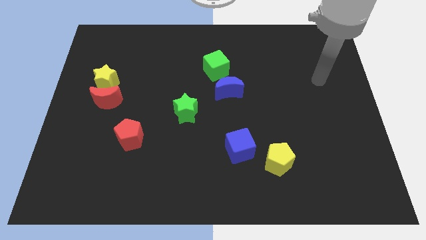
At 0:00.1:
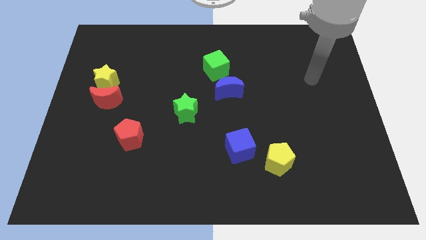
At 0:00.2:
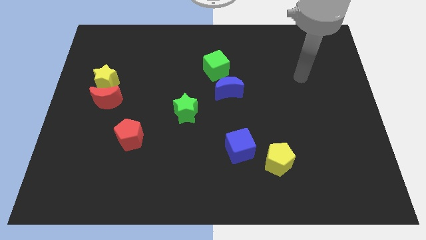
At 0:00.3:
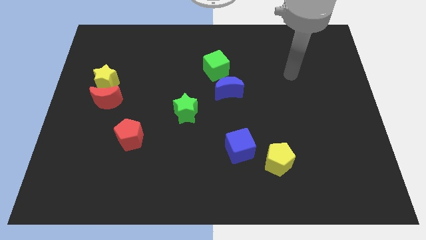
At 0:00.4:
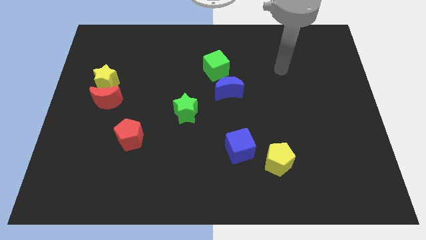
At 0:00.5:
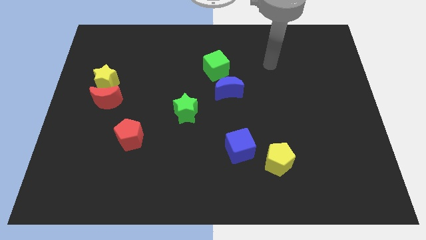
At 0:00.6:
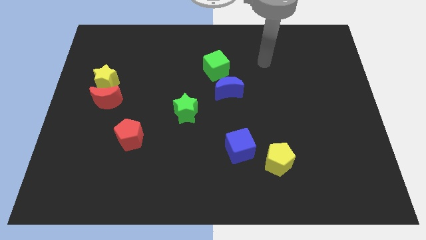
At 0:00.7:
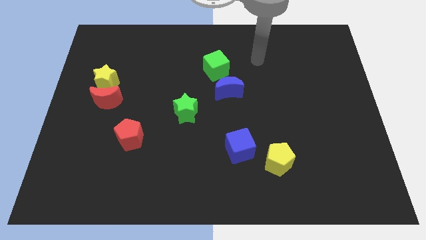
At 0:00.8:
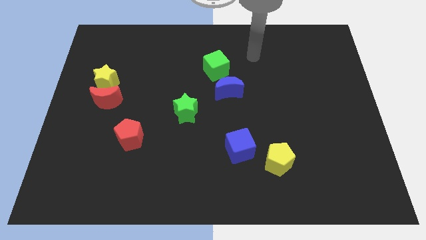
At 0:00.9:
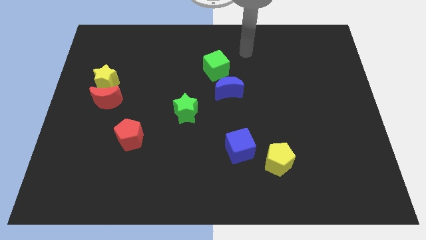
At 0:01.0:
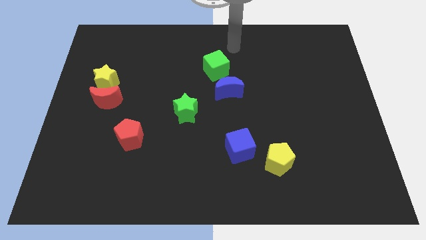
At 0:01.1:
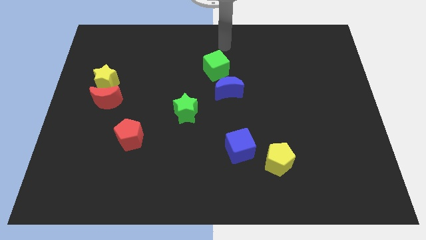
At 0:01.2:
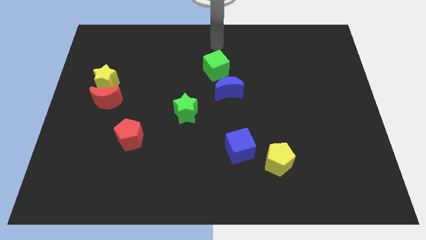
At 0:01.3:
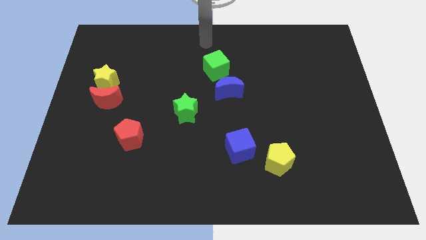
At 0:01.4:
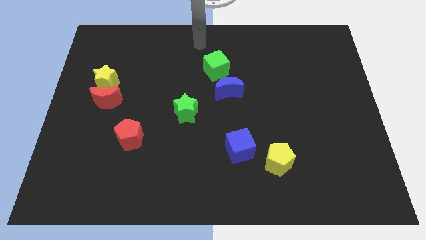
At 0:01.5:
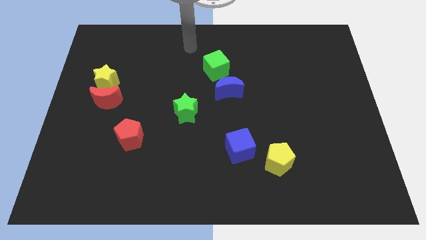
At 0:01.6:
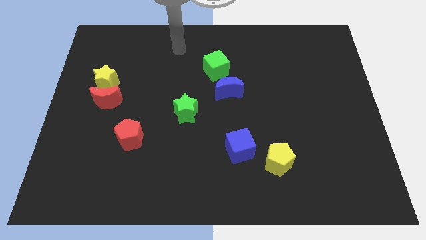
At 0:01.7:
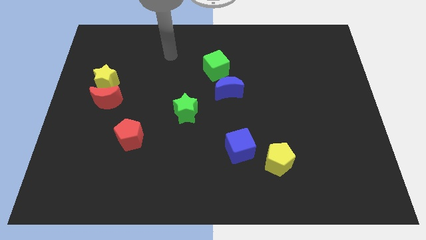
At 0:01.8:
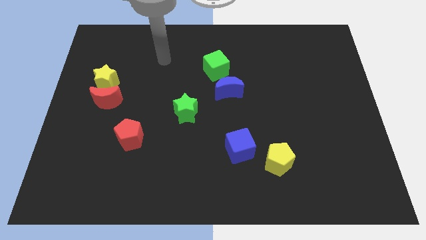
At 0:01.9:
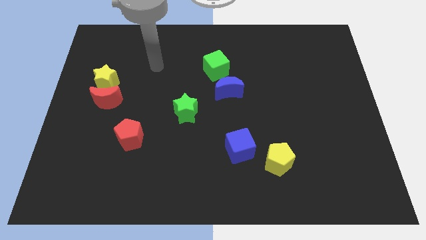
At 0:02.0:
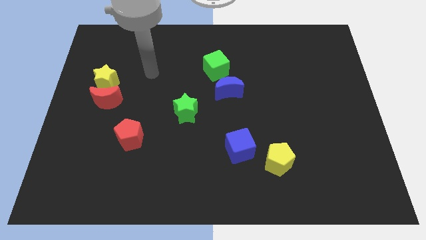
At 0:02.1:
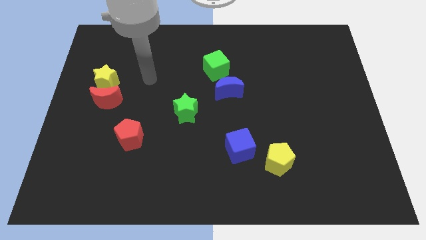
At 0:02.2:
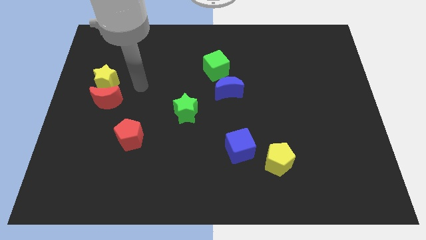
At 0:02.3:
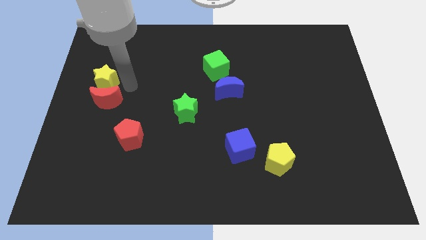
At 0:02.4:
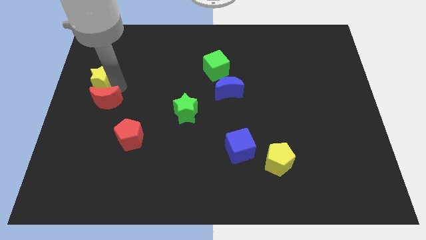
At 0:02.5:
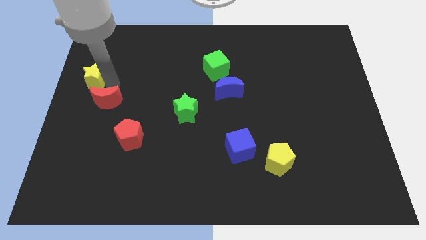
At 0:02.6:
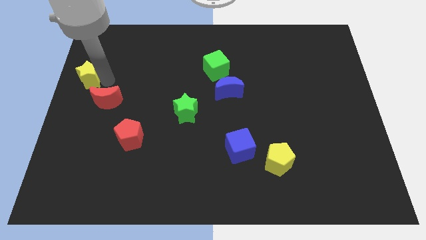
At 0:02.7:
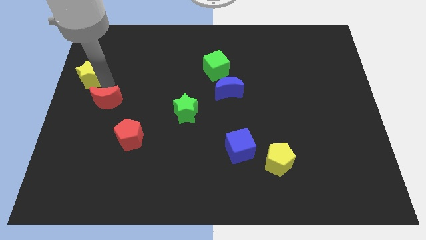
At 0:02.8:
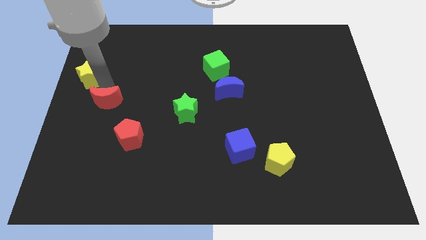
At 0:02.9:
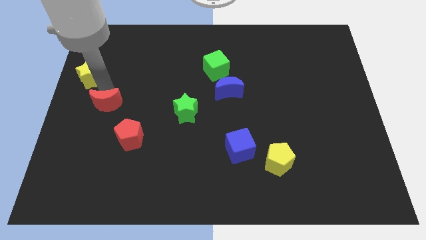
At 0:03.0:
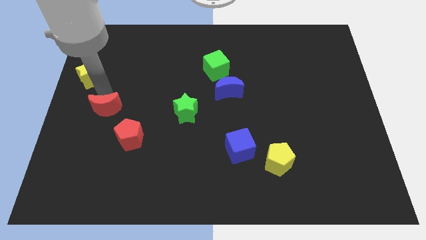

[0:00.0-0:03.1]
pull the red moon apart from the yellow star

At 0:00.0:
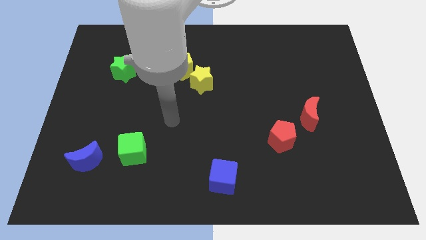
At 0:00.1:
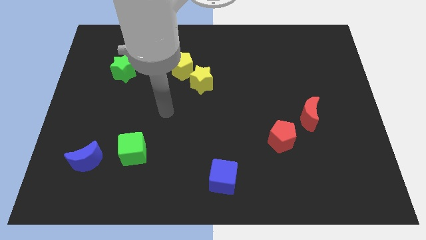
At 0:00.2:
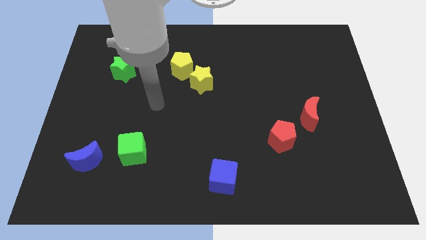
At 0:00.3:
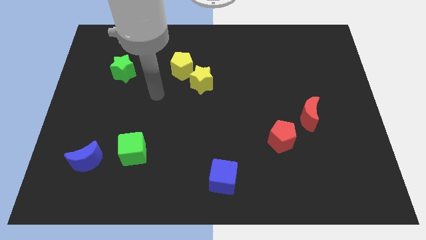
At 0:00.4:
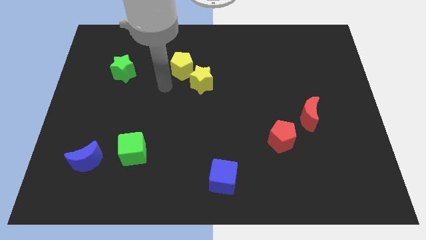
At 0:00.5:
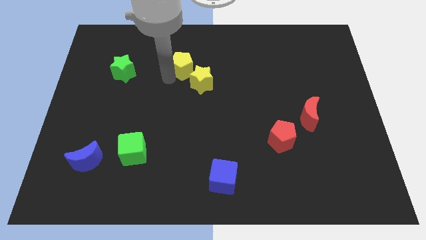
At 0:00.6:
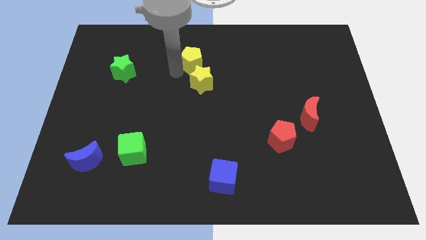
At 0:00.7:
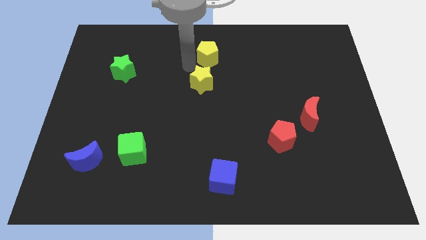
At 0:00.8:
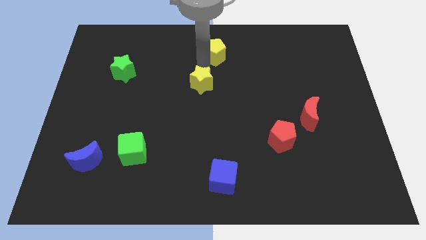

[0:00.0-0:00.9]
pull the yellow star apart from the yellow pentagon

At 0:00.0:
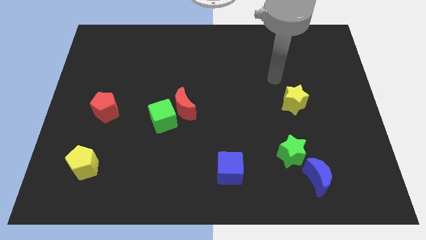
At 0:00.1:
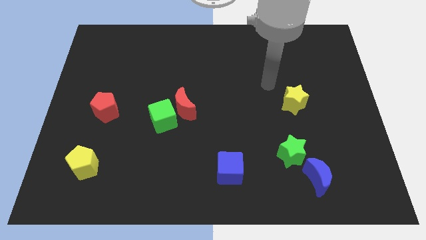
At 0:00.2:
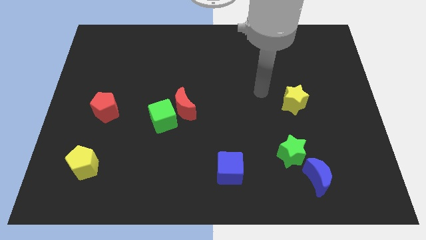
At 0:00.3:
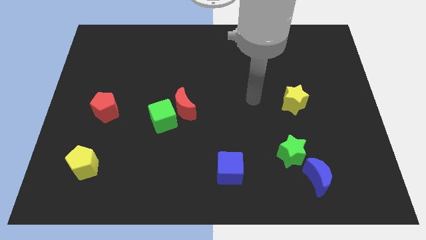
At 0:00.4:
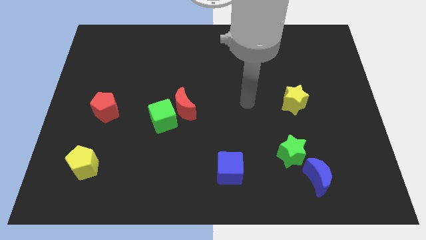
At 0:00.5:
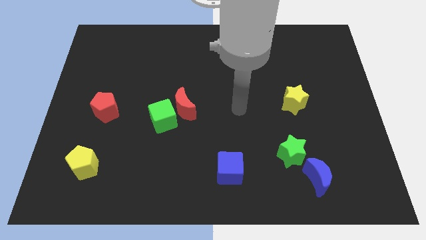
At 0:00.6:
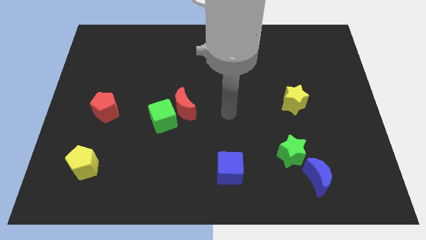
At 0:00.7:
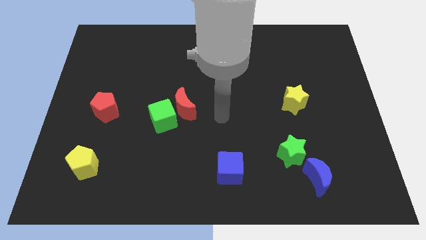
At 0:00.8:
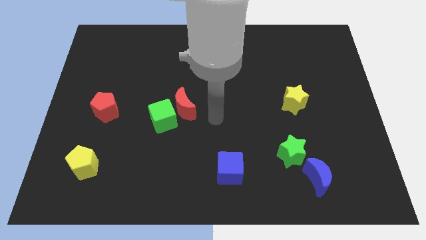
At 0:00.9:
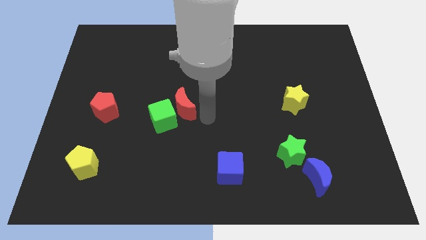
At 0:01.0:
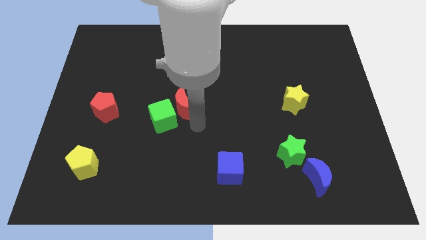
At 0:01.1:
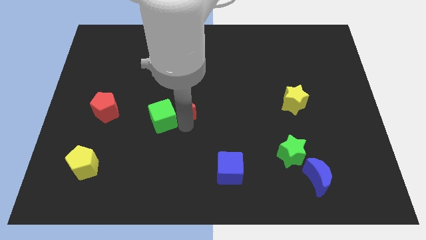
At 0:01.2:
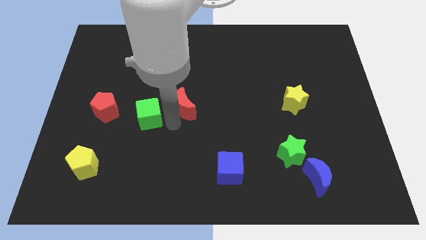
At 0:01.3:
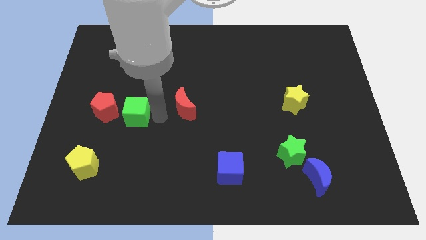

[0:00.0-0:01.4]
move the red moon away from the green cube

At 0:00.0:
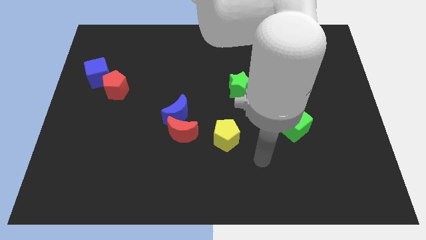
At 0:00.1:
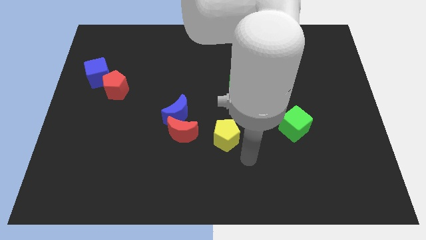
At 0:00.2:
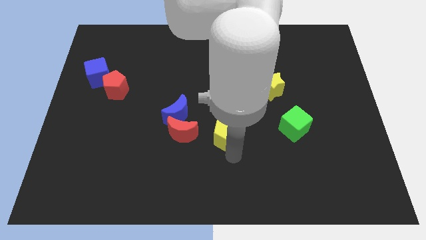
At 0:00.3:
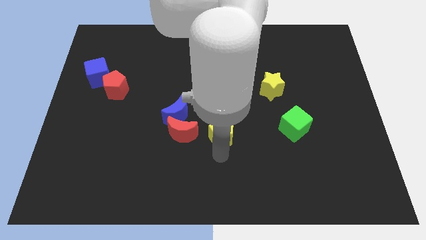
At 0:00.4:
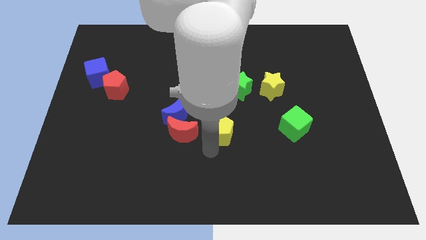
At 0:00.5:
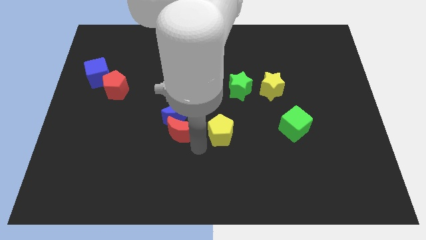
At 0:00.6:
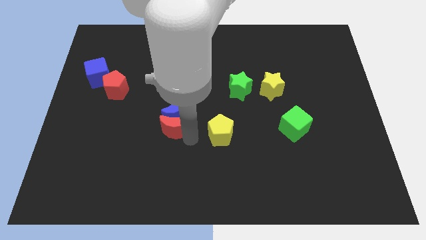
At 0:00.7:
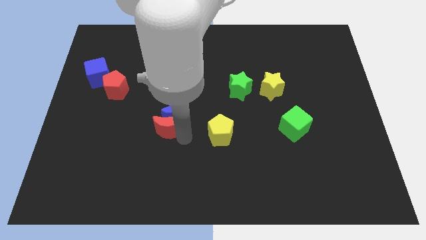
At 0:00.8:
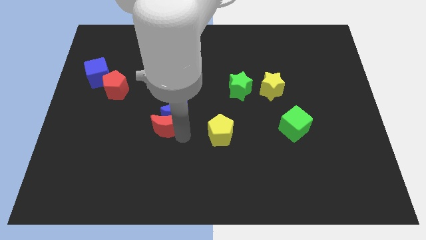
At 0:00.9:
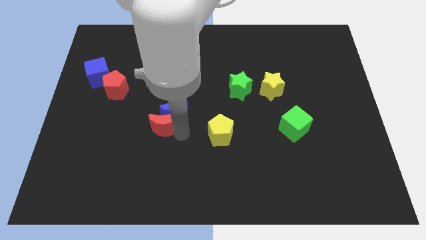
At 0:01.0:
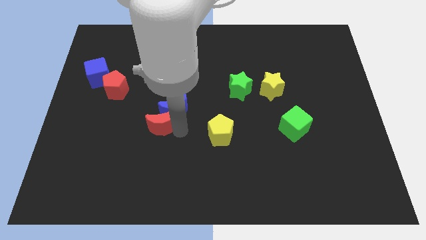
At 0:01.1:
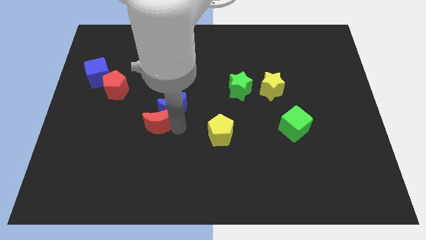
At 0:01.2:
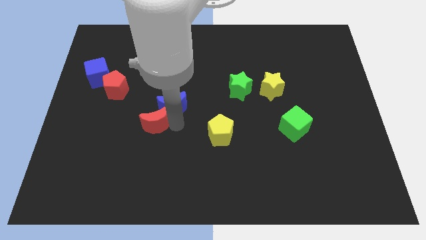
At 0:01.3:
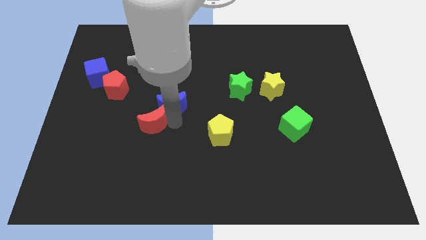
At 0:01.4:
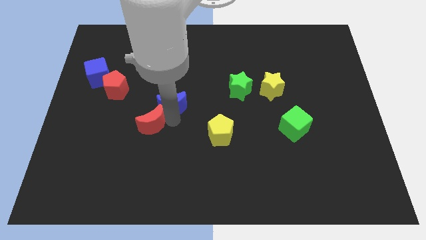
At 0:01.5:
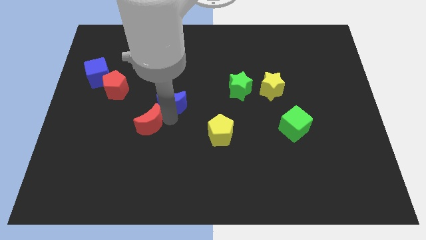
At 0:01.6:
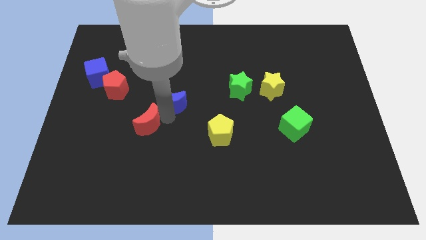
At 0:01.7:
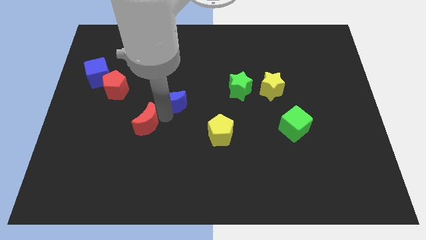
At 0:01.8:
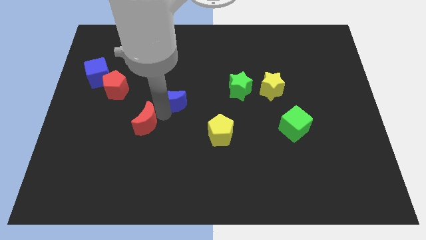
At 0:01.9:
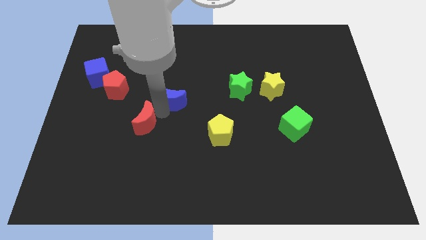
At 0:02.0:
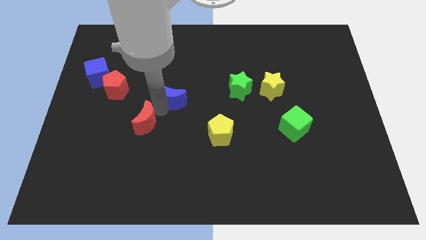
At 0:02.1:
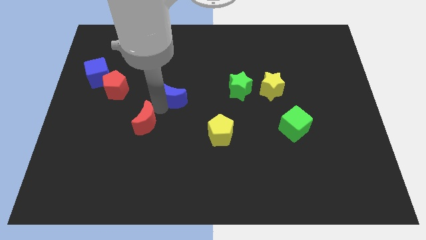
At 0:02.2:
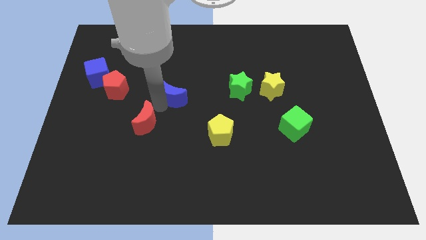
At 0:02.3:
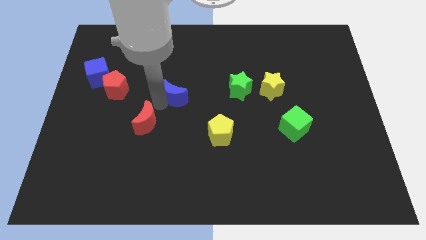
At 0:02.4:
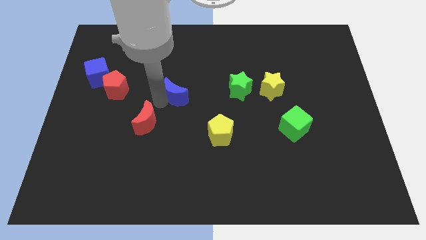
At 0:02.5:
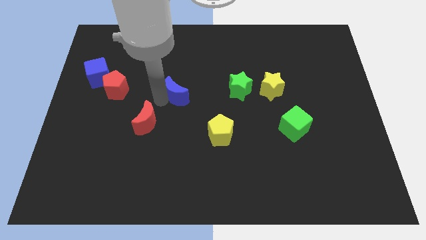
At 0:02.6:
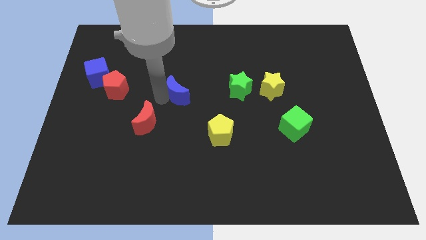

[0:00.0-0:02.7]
pull the blue moon apart from the red moon

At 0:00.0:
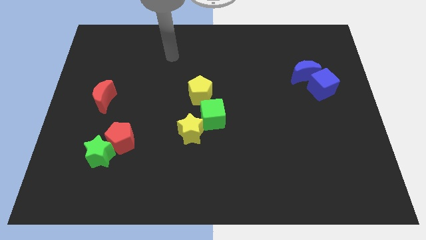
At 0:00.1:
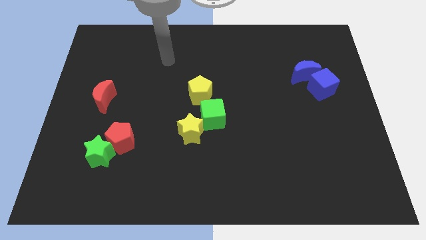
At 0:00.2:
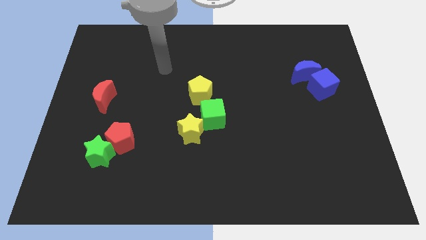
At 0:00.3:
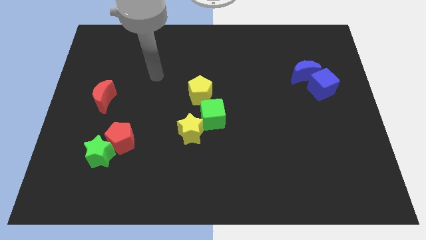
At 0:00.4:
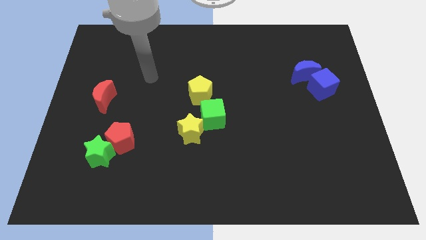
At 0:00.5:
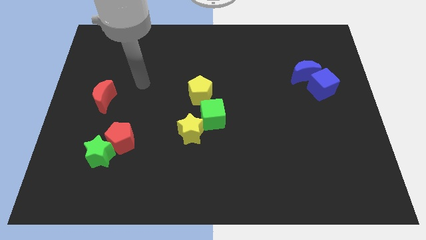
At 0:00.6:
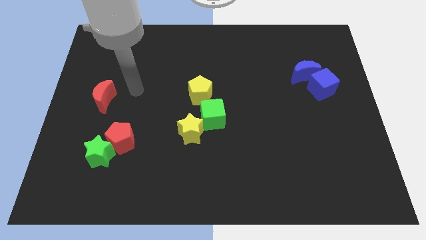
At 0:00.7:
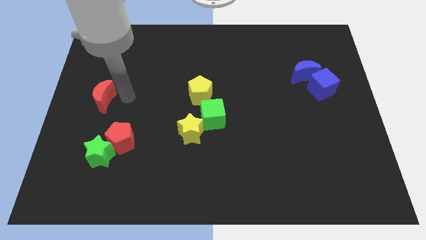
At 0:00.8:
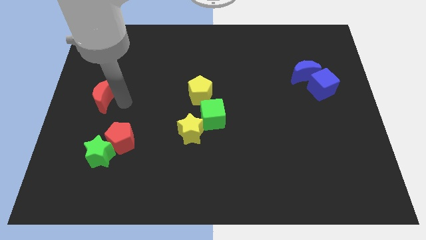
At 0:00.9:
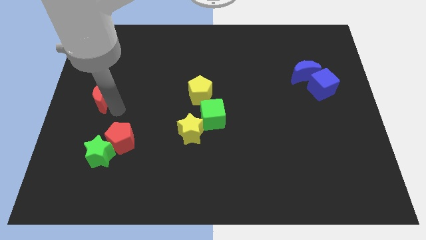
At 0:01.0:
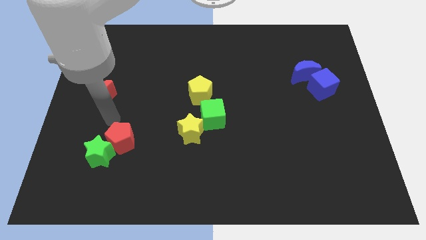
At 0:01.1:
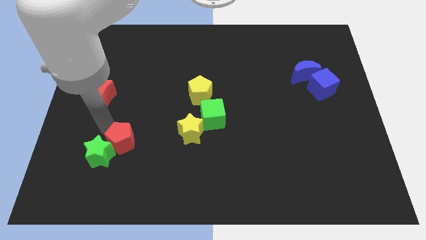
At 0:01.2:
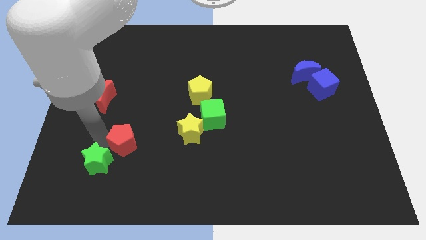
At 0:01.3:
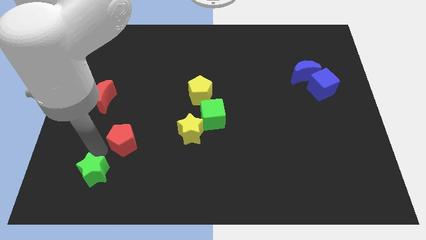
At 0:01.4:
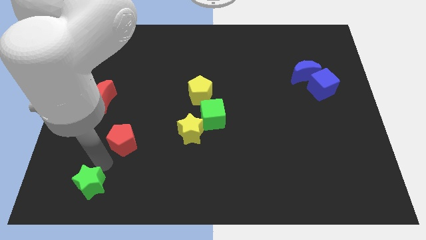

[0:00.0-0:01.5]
move the red pentagon away from the green star
